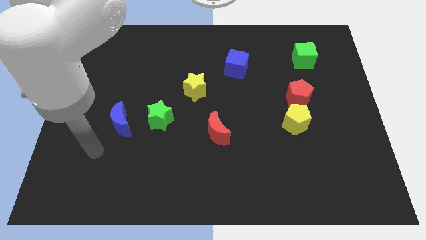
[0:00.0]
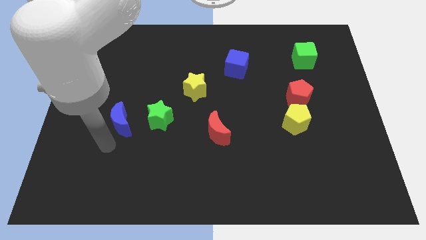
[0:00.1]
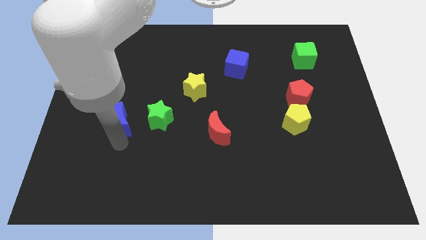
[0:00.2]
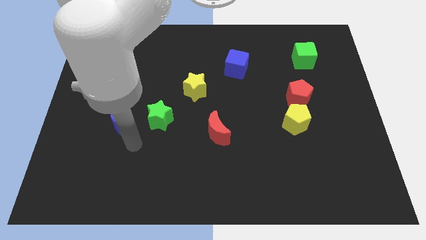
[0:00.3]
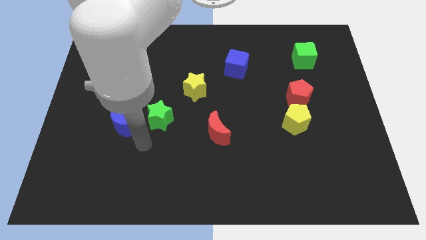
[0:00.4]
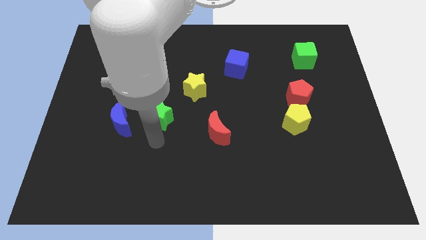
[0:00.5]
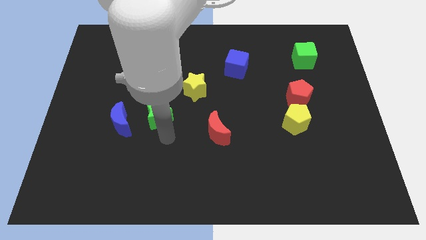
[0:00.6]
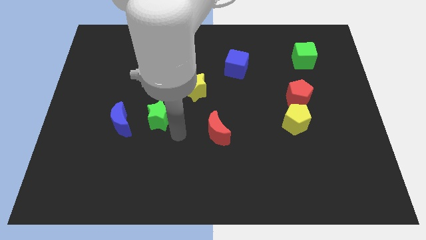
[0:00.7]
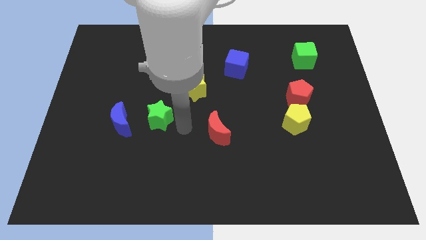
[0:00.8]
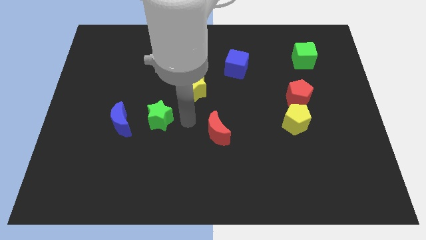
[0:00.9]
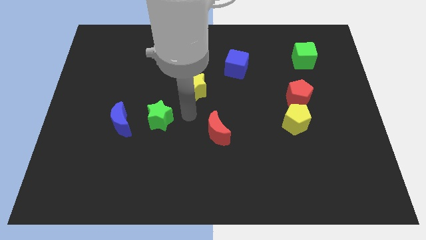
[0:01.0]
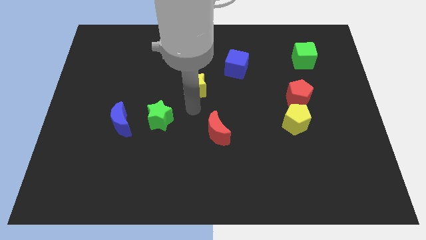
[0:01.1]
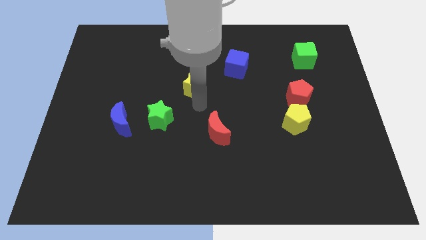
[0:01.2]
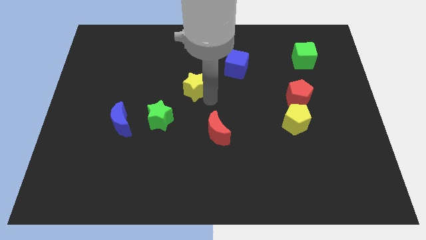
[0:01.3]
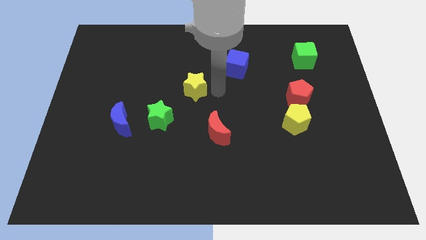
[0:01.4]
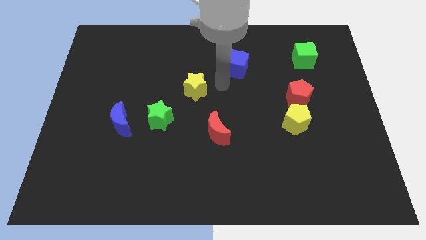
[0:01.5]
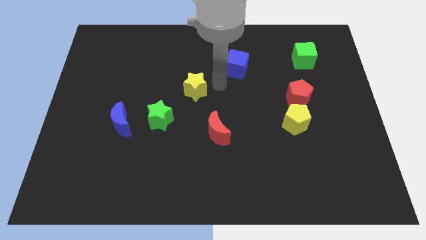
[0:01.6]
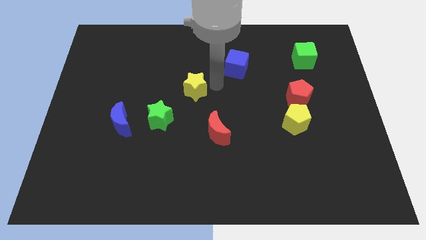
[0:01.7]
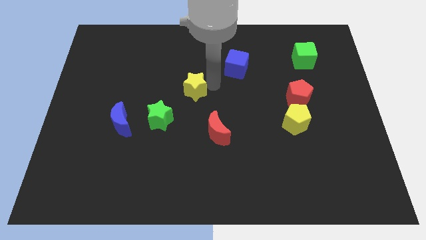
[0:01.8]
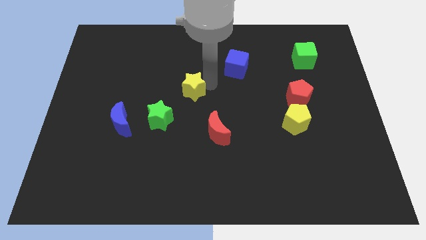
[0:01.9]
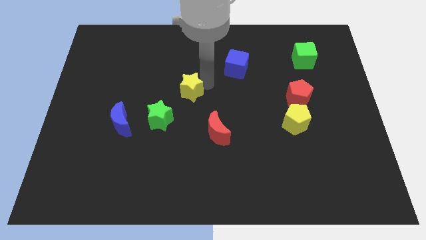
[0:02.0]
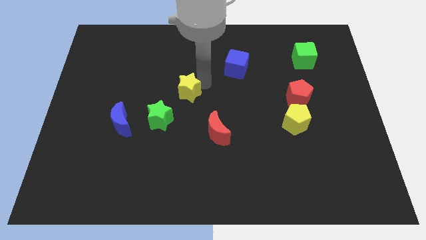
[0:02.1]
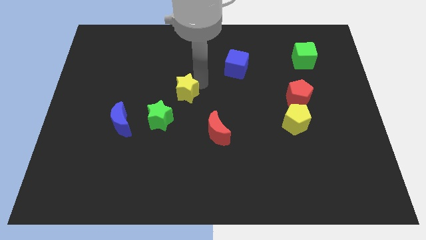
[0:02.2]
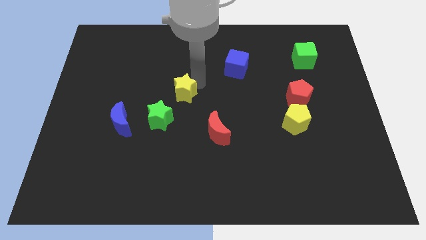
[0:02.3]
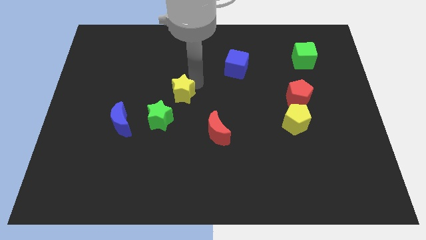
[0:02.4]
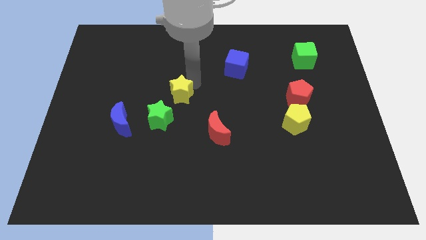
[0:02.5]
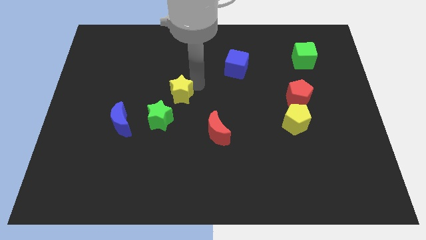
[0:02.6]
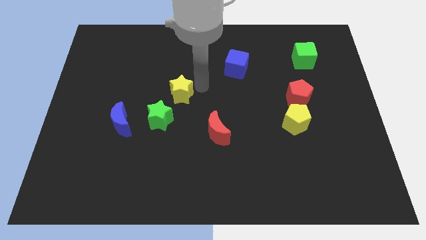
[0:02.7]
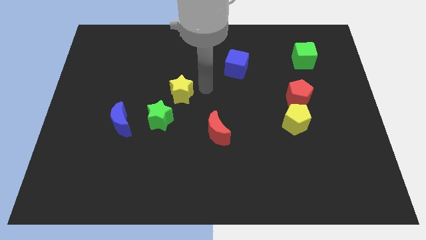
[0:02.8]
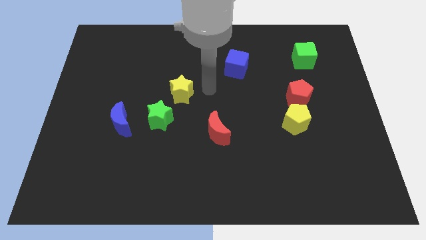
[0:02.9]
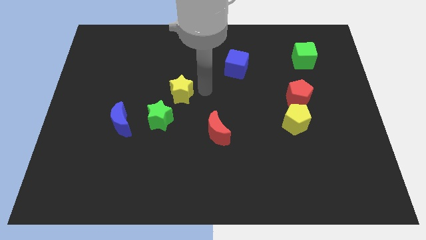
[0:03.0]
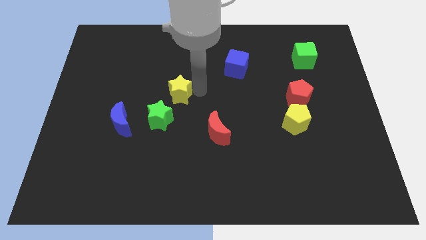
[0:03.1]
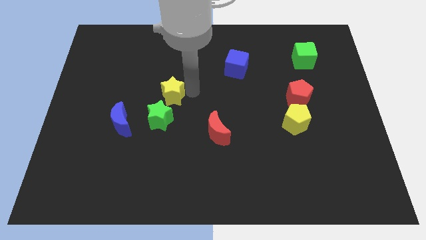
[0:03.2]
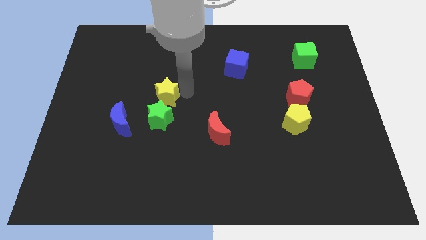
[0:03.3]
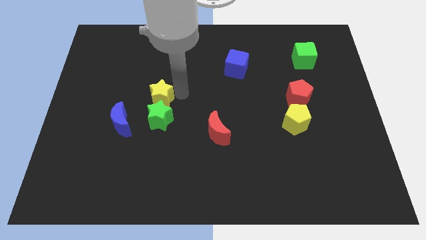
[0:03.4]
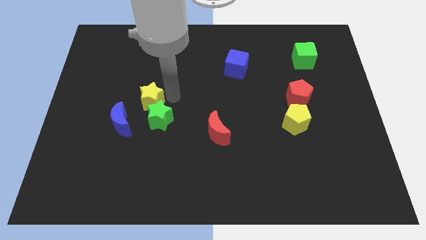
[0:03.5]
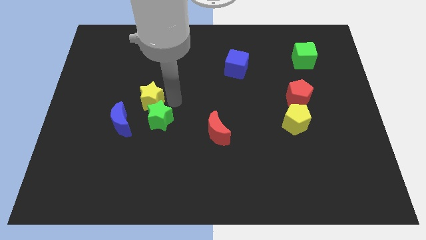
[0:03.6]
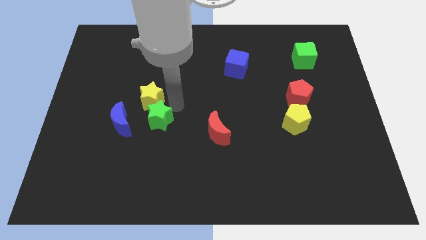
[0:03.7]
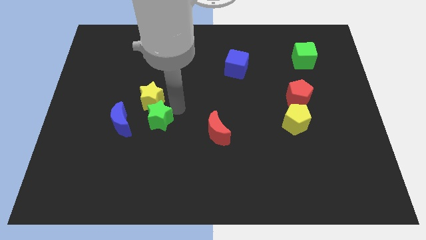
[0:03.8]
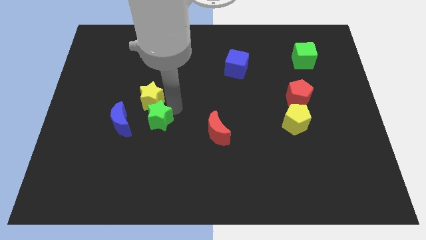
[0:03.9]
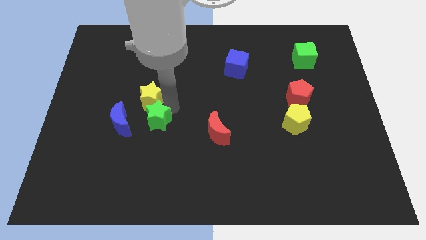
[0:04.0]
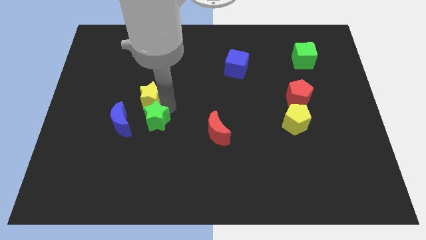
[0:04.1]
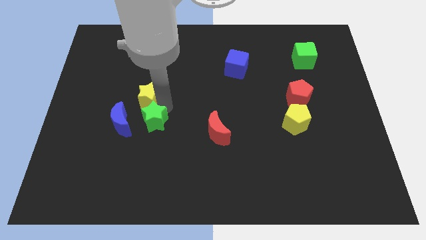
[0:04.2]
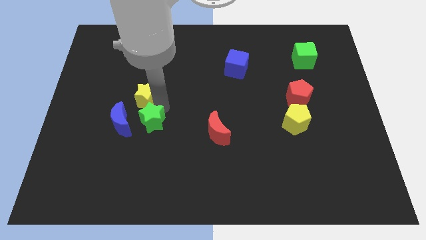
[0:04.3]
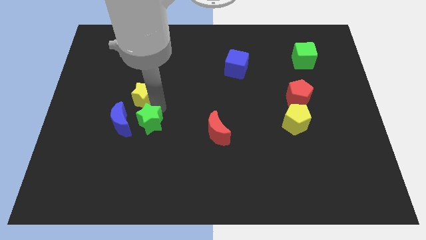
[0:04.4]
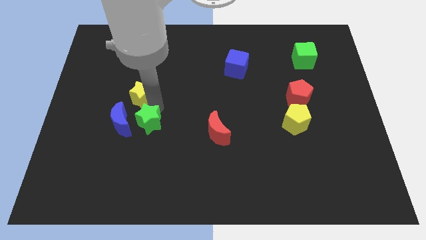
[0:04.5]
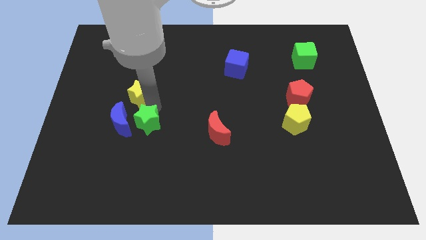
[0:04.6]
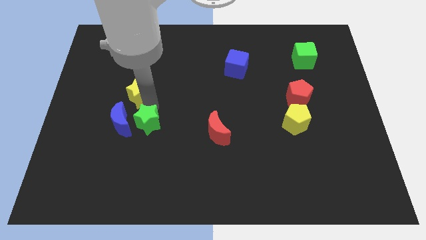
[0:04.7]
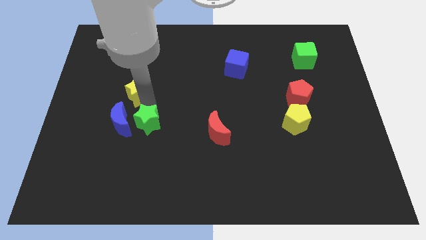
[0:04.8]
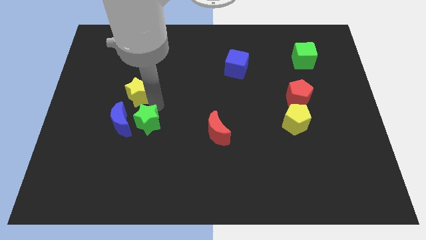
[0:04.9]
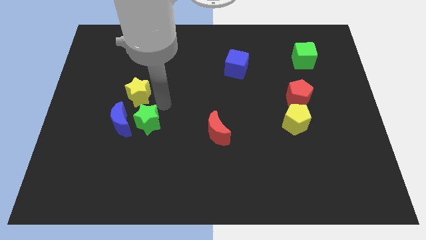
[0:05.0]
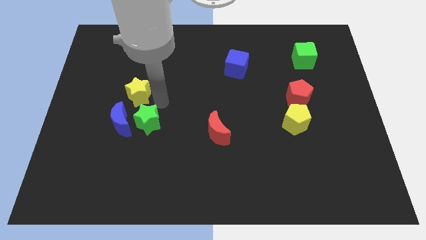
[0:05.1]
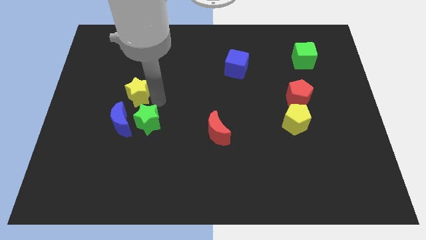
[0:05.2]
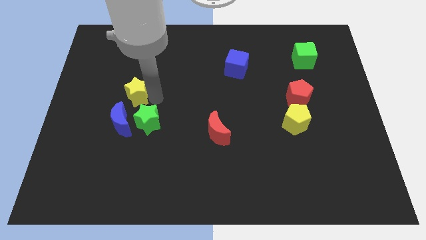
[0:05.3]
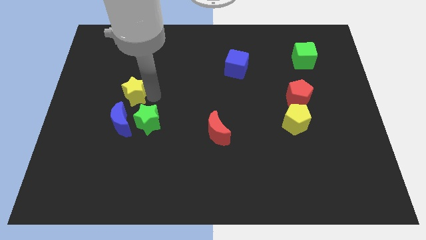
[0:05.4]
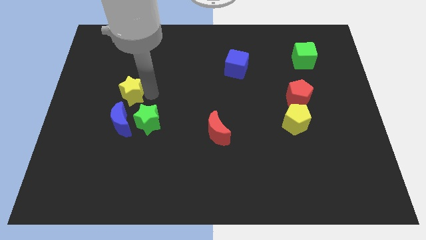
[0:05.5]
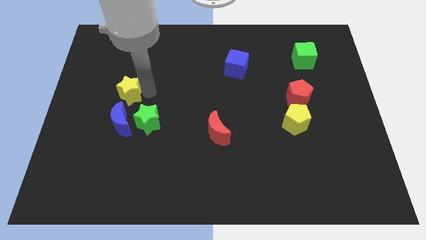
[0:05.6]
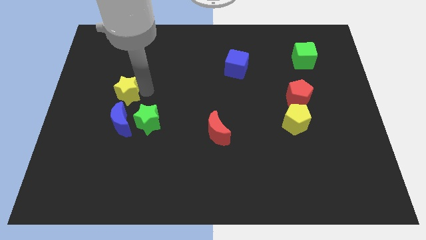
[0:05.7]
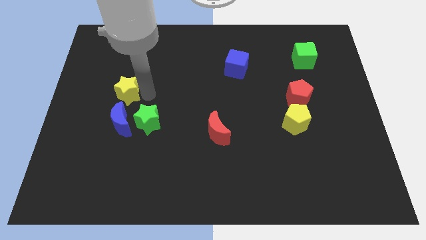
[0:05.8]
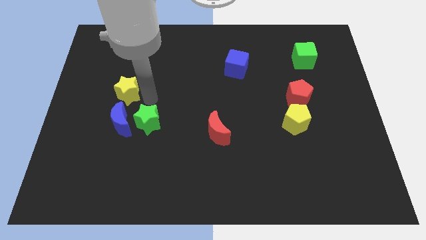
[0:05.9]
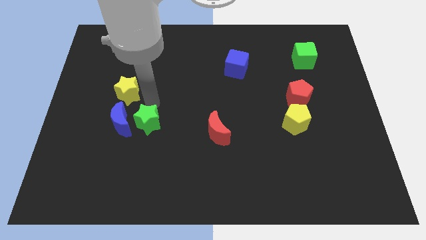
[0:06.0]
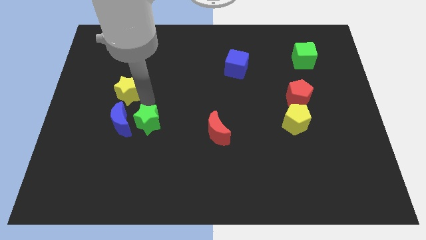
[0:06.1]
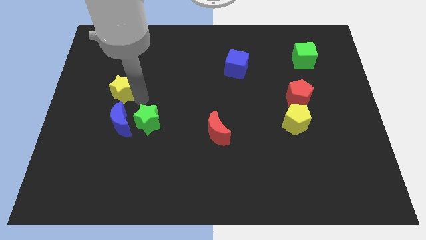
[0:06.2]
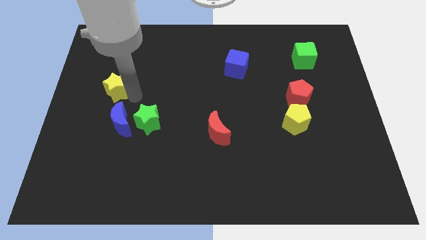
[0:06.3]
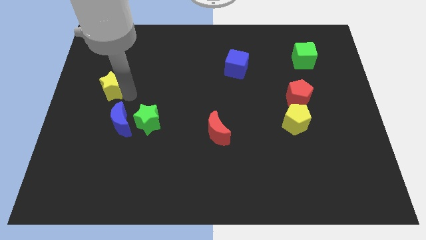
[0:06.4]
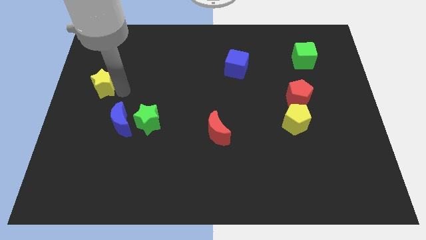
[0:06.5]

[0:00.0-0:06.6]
push the yellow star to the left side of the board
